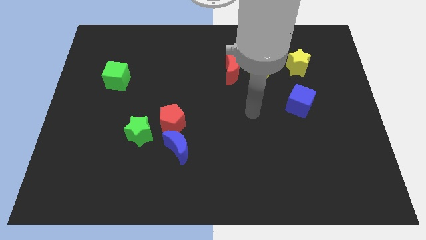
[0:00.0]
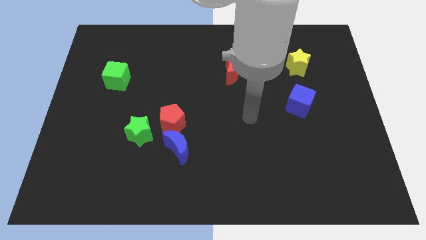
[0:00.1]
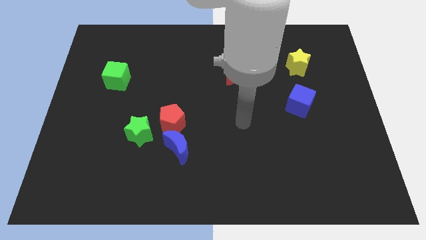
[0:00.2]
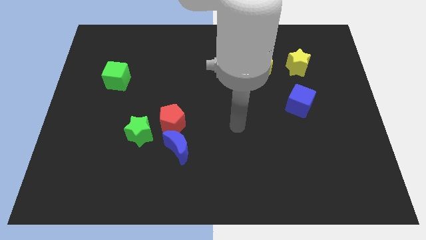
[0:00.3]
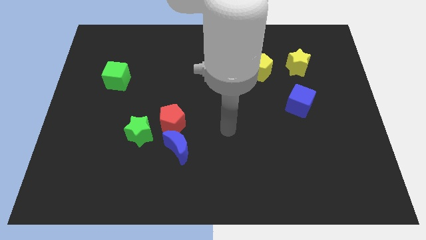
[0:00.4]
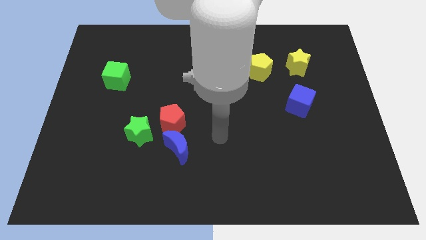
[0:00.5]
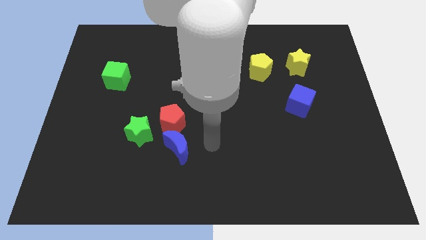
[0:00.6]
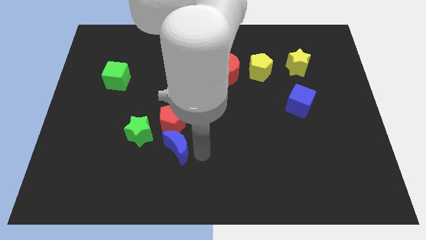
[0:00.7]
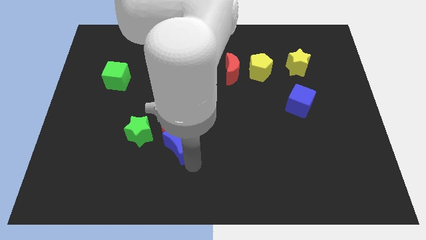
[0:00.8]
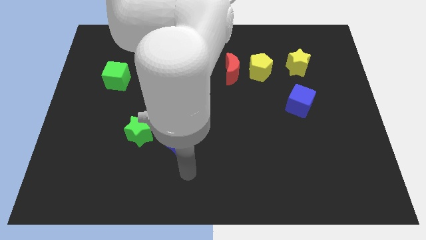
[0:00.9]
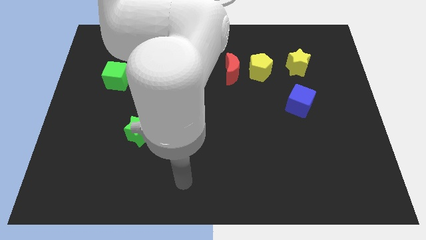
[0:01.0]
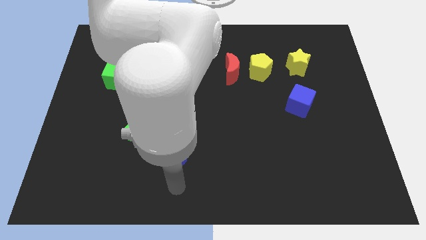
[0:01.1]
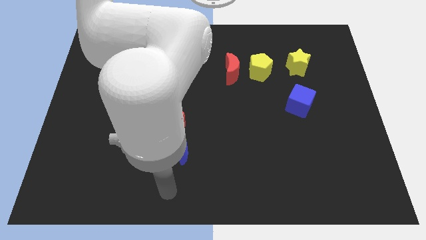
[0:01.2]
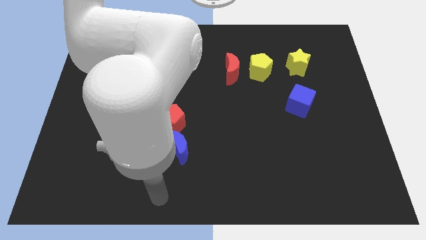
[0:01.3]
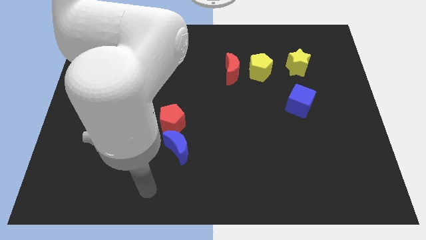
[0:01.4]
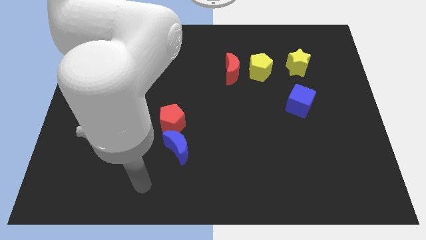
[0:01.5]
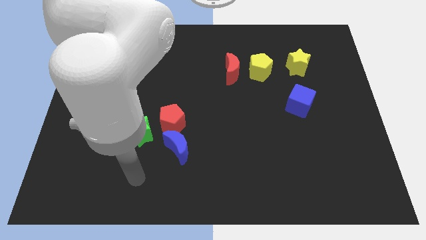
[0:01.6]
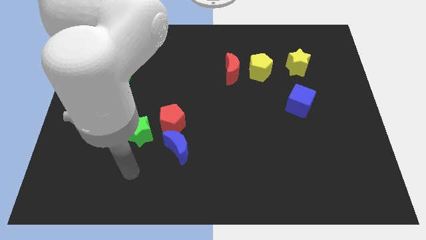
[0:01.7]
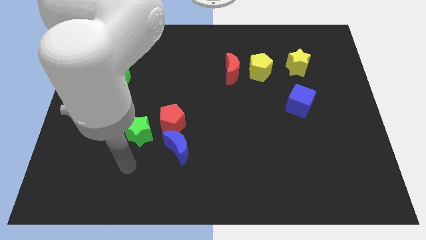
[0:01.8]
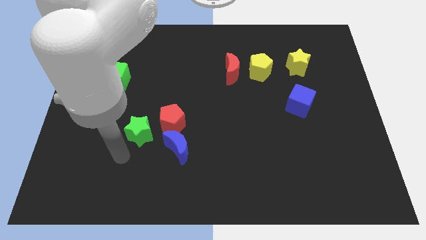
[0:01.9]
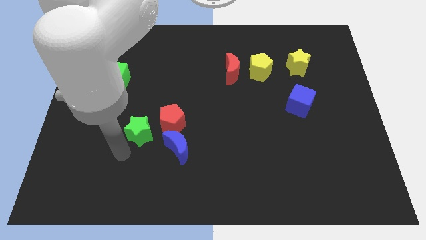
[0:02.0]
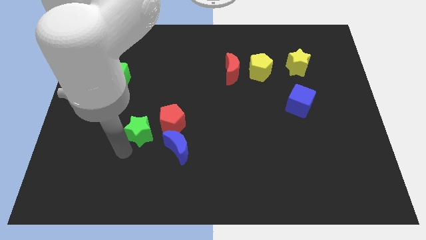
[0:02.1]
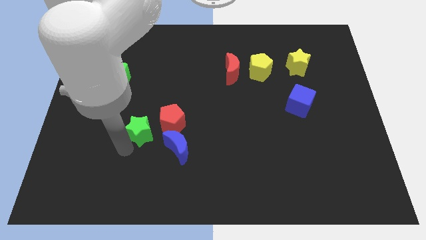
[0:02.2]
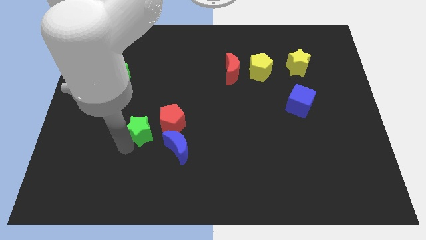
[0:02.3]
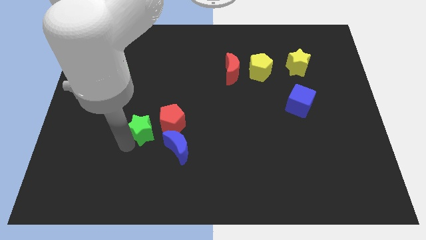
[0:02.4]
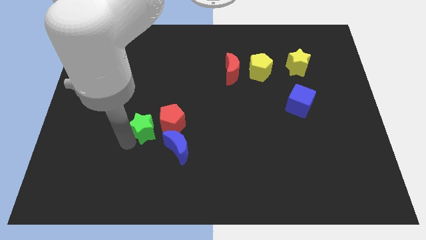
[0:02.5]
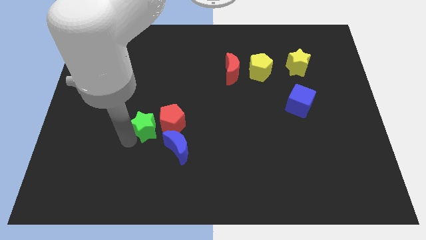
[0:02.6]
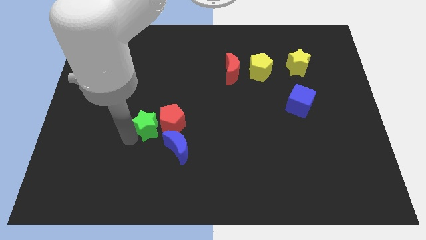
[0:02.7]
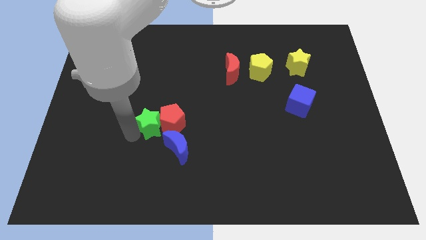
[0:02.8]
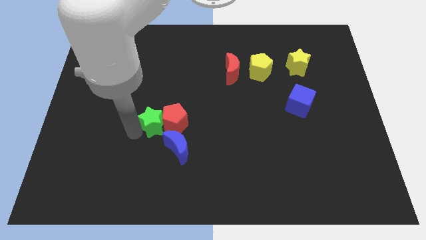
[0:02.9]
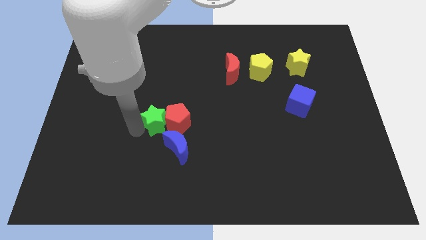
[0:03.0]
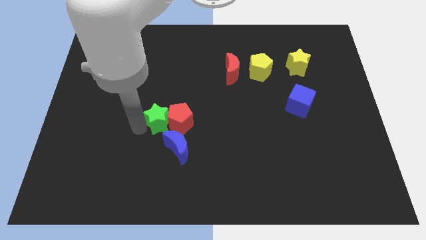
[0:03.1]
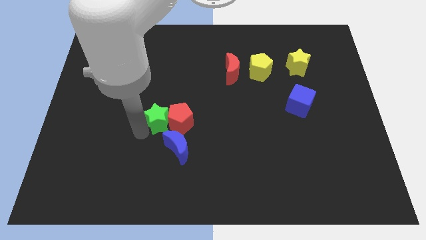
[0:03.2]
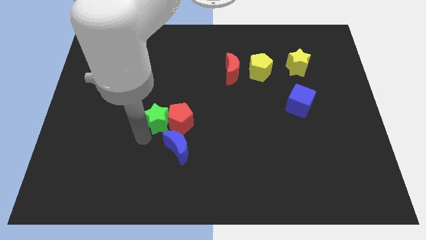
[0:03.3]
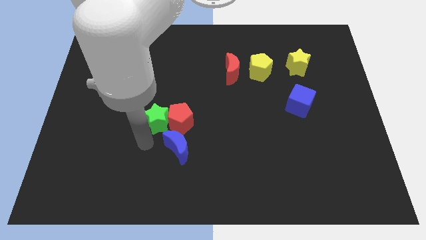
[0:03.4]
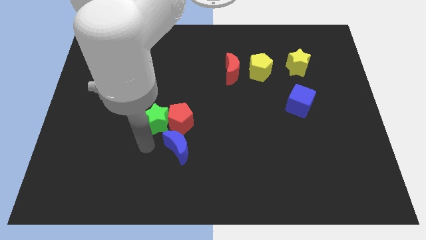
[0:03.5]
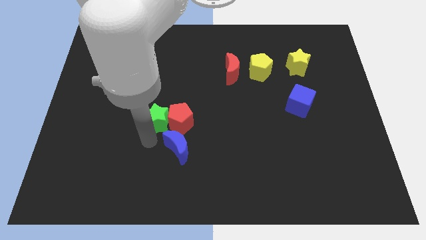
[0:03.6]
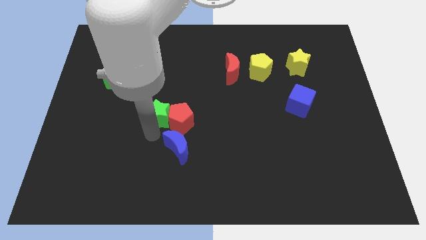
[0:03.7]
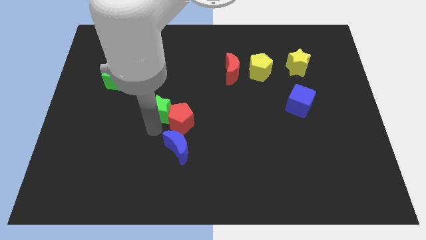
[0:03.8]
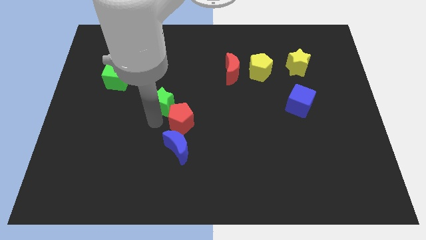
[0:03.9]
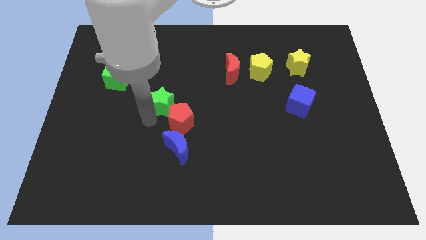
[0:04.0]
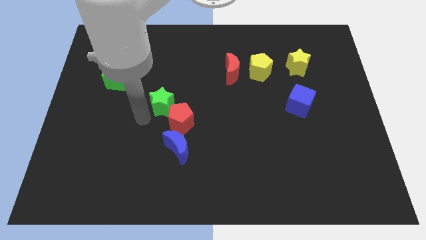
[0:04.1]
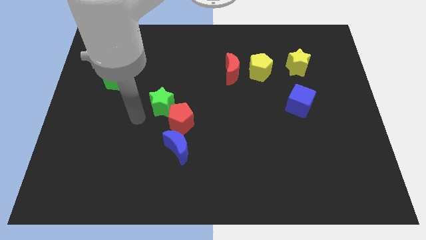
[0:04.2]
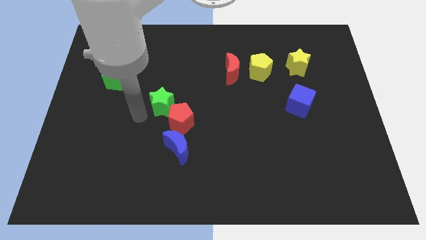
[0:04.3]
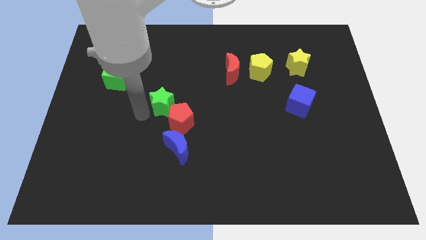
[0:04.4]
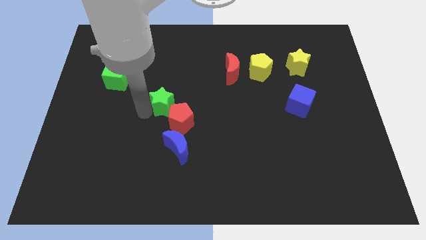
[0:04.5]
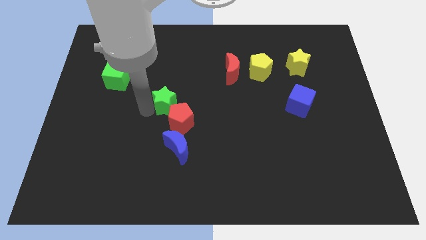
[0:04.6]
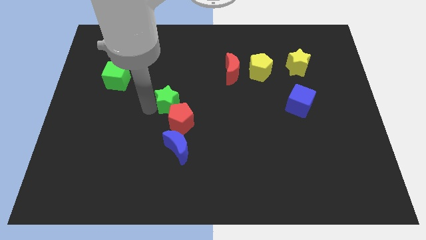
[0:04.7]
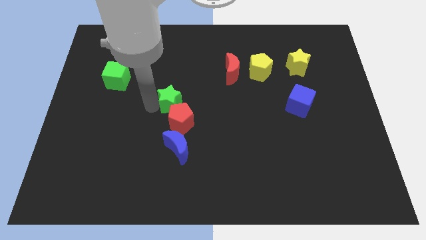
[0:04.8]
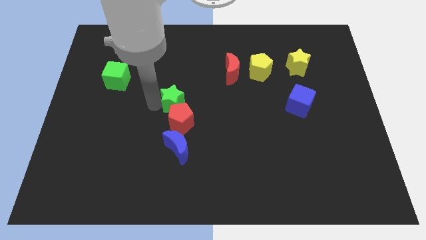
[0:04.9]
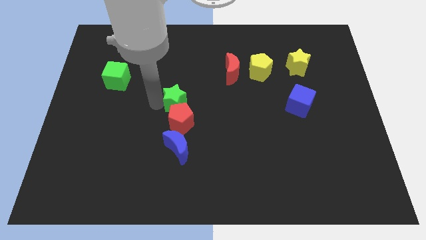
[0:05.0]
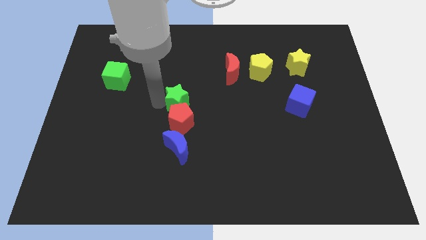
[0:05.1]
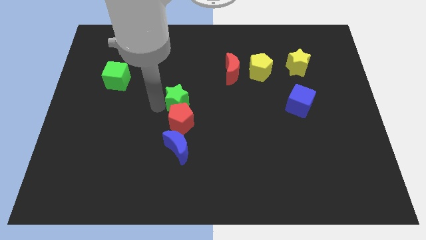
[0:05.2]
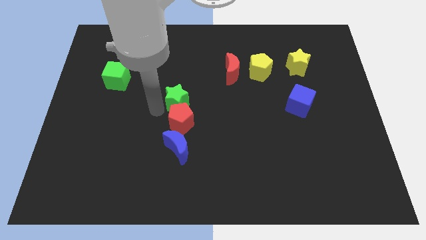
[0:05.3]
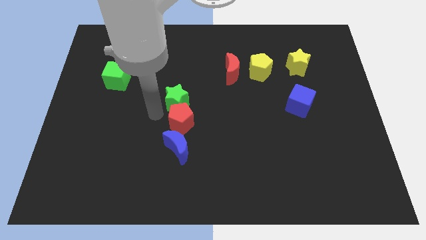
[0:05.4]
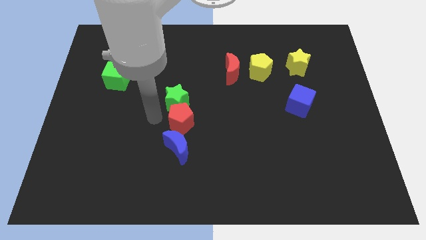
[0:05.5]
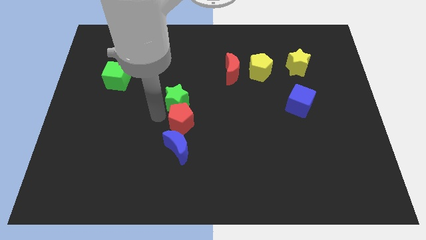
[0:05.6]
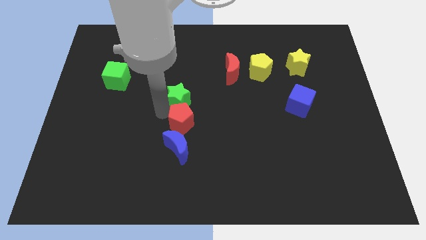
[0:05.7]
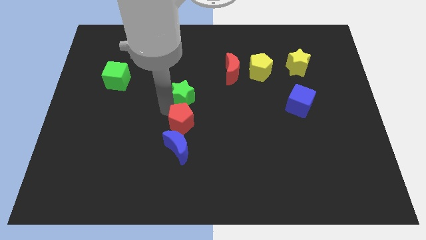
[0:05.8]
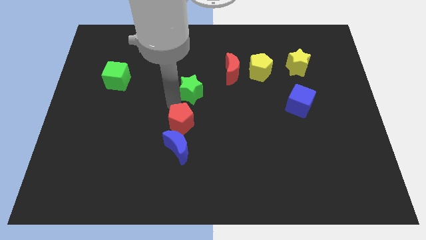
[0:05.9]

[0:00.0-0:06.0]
slide the green star to the bottom left side of the red moon

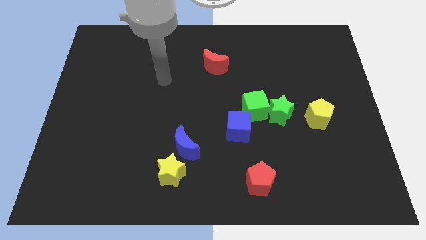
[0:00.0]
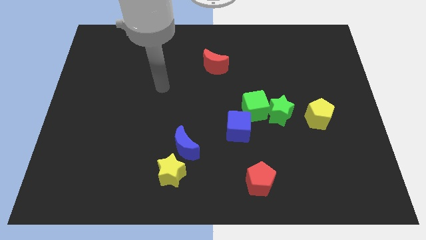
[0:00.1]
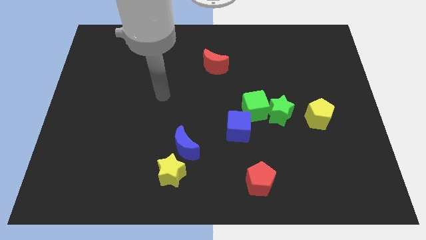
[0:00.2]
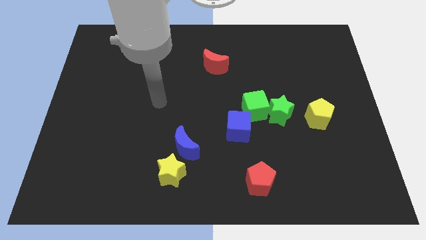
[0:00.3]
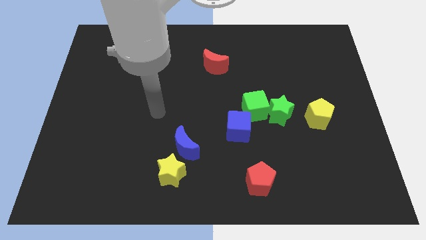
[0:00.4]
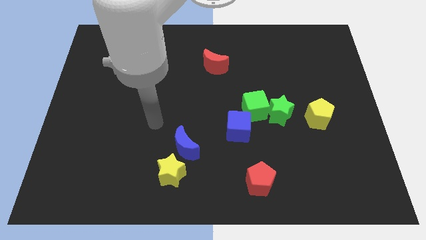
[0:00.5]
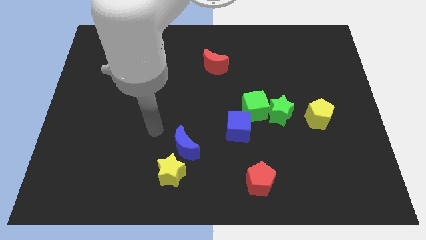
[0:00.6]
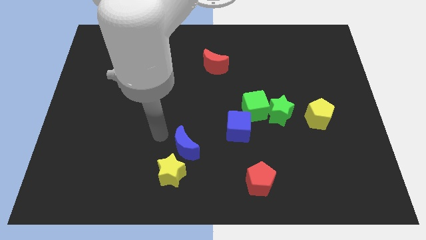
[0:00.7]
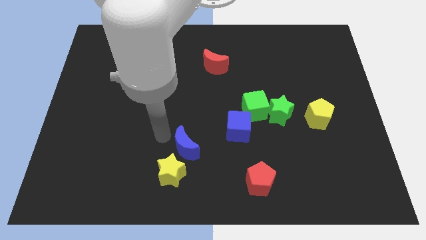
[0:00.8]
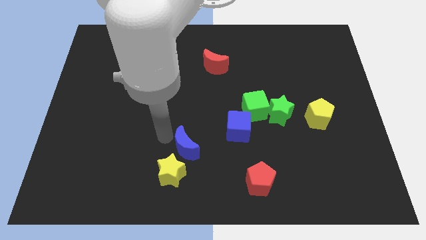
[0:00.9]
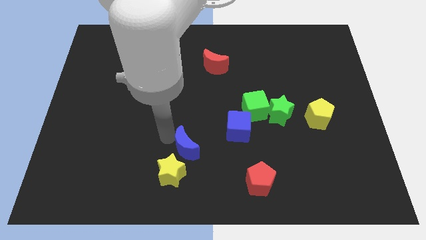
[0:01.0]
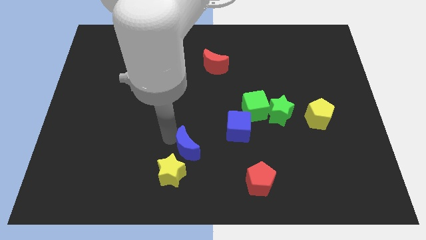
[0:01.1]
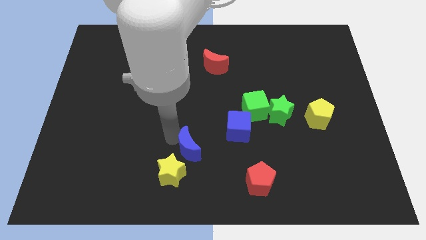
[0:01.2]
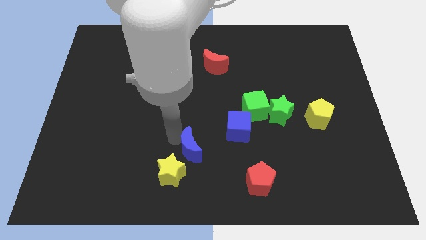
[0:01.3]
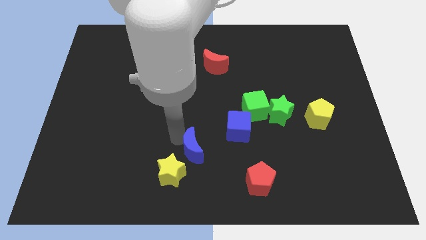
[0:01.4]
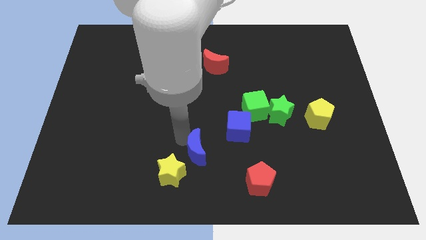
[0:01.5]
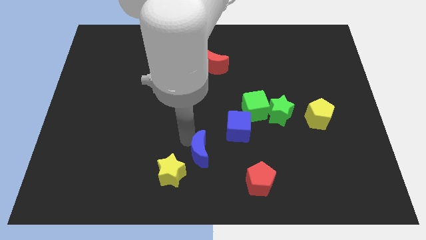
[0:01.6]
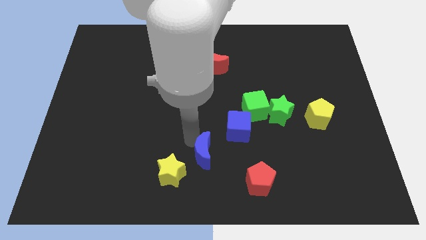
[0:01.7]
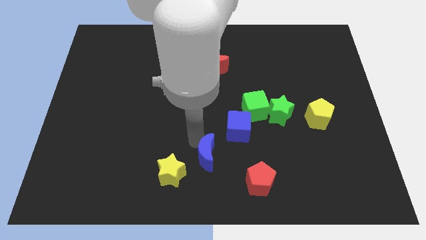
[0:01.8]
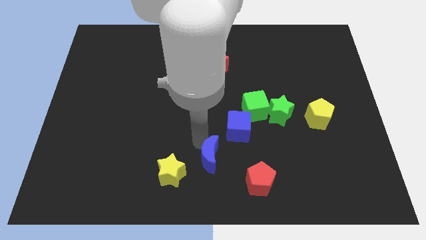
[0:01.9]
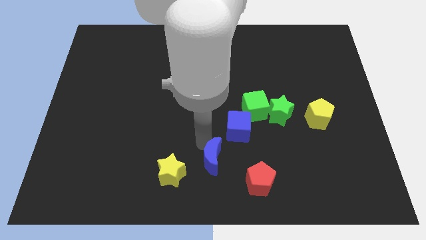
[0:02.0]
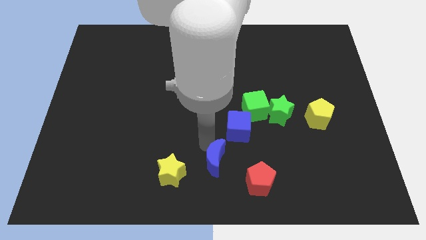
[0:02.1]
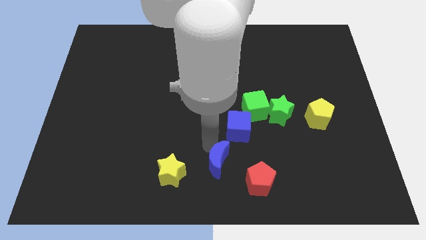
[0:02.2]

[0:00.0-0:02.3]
move the blue moon to the bottom of the blue cube
